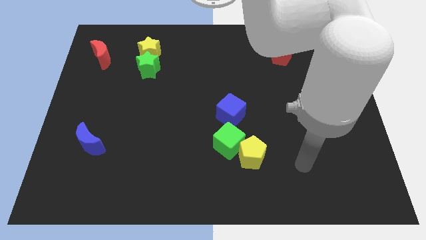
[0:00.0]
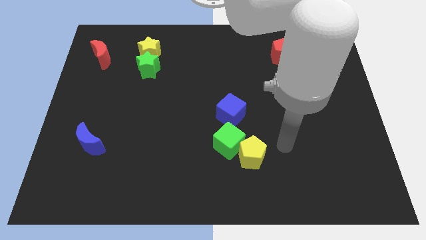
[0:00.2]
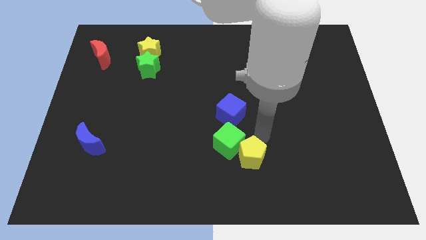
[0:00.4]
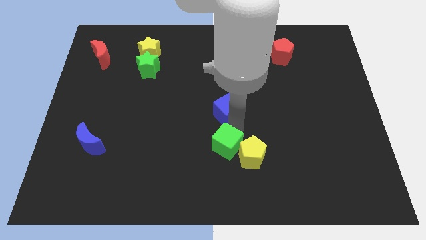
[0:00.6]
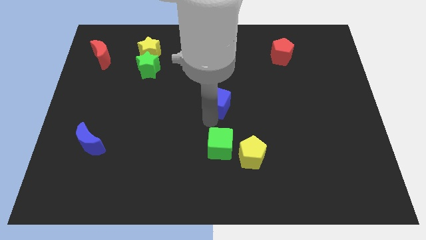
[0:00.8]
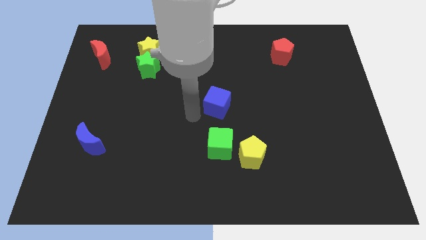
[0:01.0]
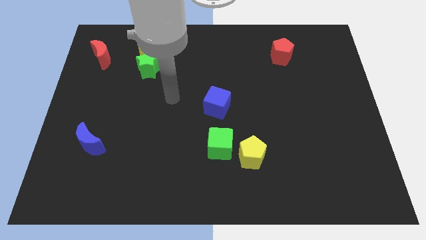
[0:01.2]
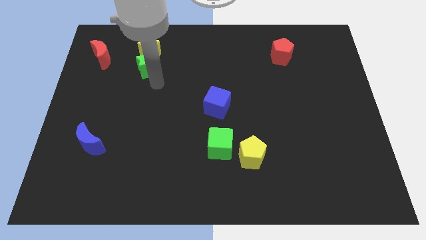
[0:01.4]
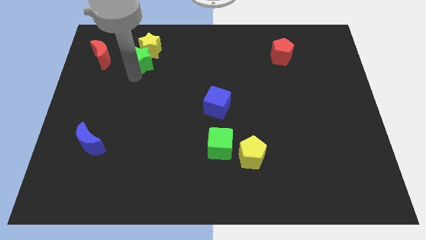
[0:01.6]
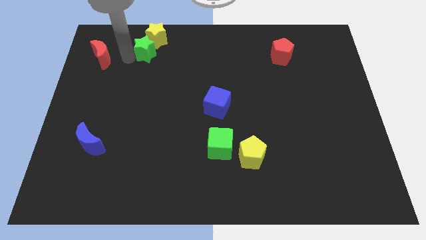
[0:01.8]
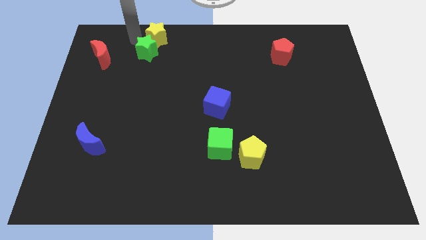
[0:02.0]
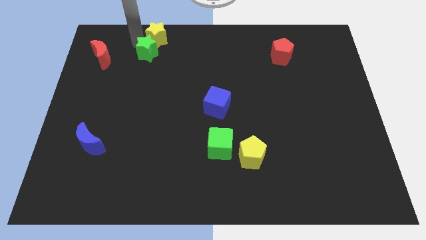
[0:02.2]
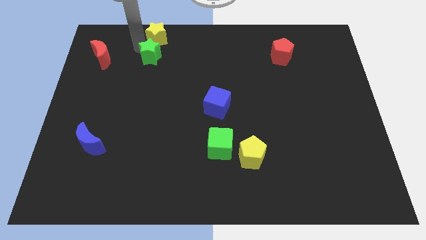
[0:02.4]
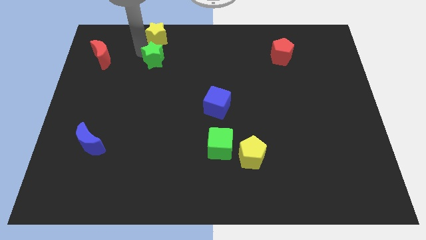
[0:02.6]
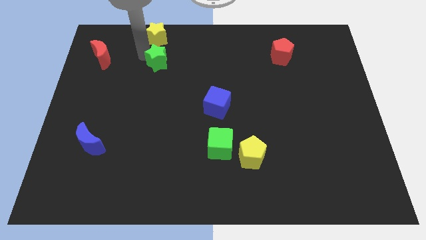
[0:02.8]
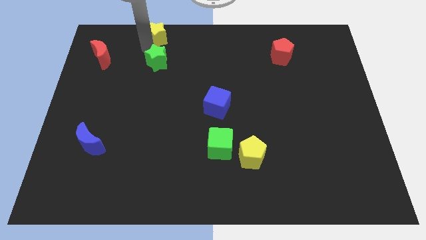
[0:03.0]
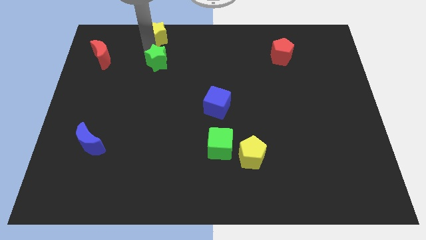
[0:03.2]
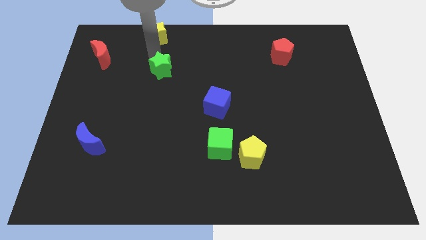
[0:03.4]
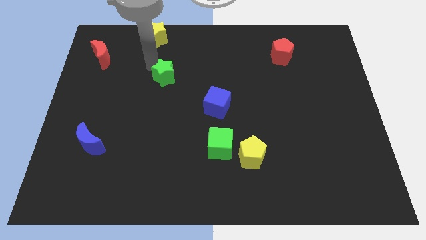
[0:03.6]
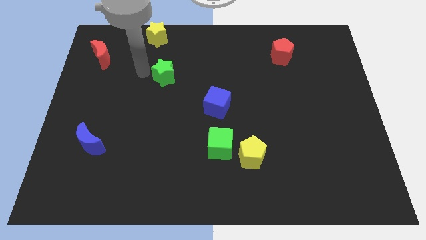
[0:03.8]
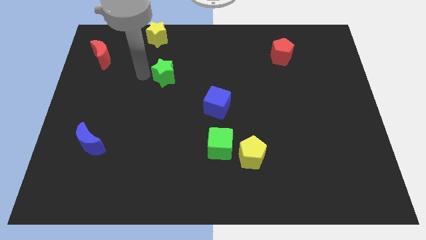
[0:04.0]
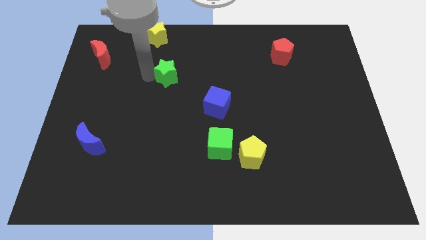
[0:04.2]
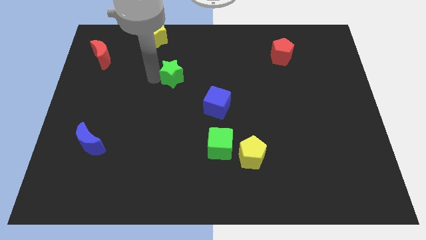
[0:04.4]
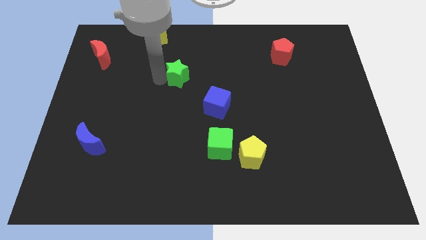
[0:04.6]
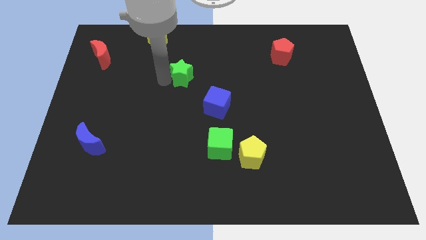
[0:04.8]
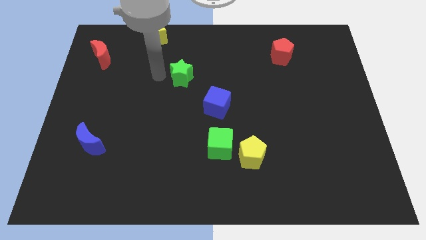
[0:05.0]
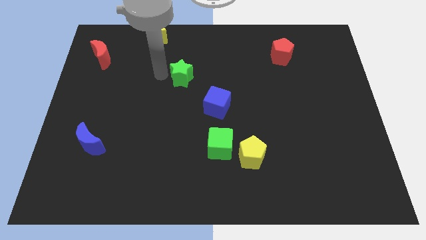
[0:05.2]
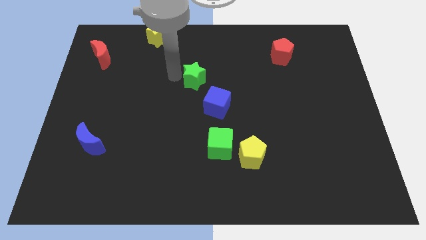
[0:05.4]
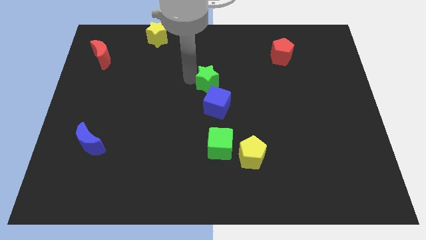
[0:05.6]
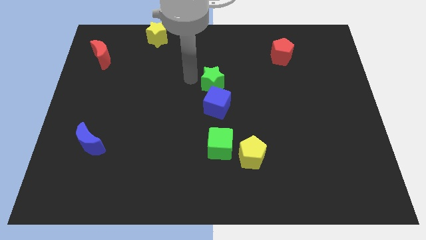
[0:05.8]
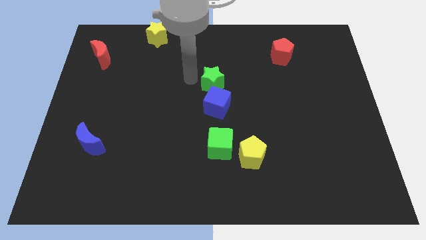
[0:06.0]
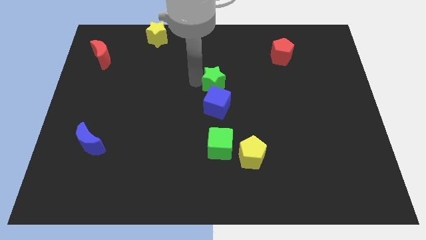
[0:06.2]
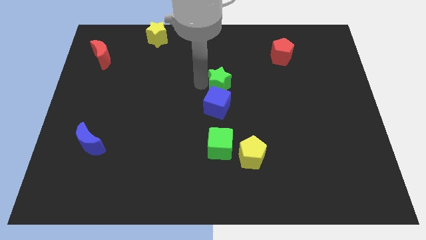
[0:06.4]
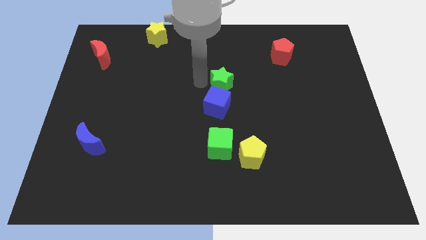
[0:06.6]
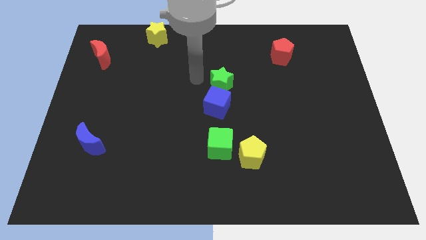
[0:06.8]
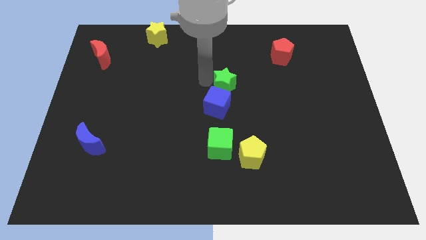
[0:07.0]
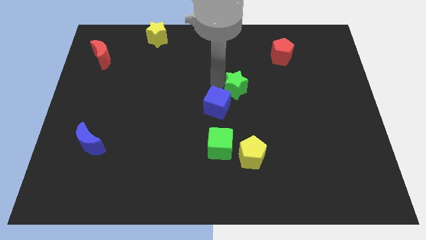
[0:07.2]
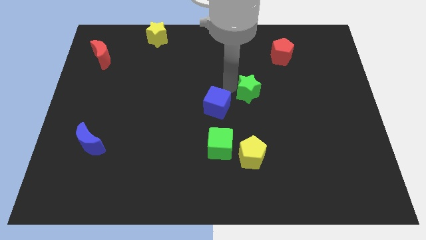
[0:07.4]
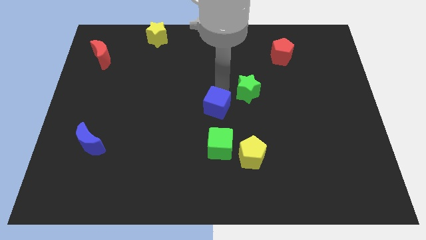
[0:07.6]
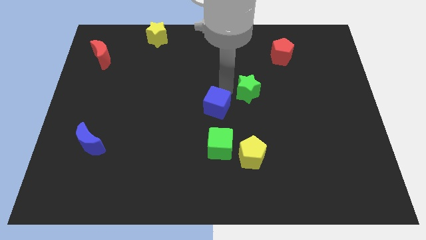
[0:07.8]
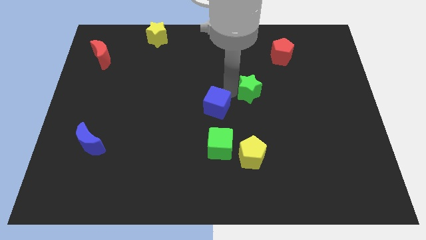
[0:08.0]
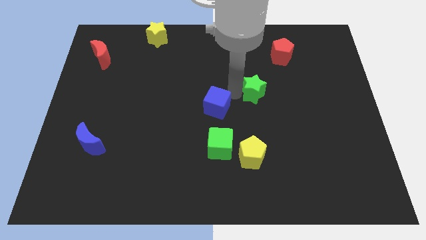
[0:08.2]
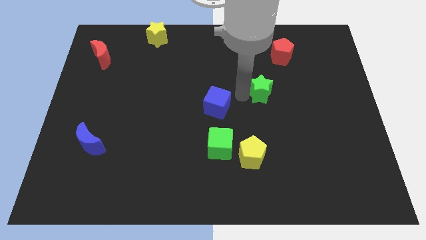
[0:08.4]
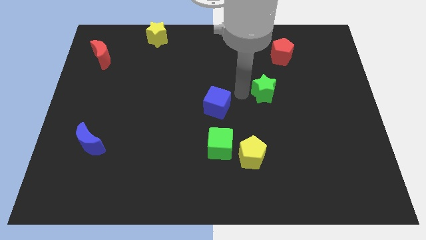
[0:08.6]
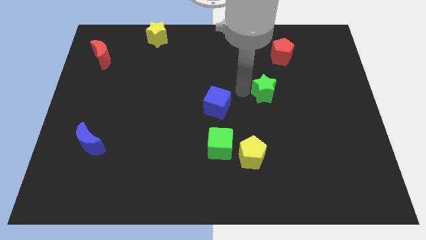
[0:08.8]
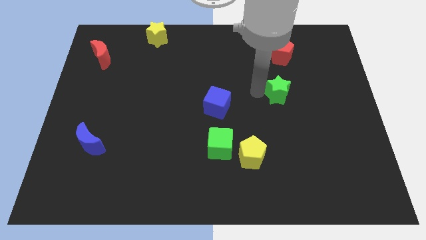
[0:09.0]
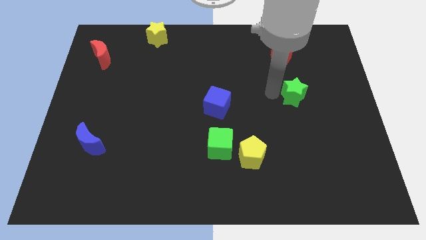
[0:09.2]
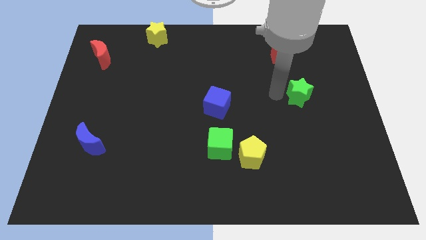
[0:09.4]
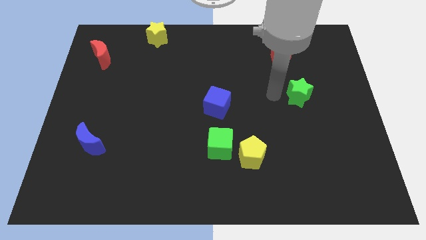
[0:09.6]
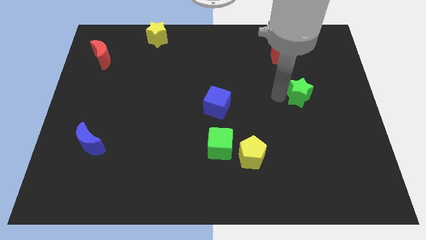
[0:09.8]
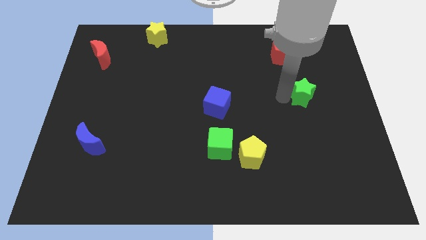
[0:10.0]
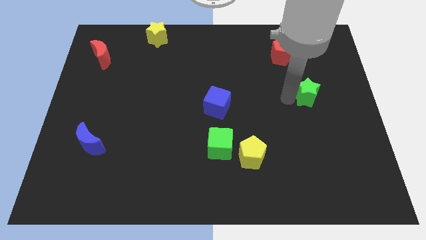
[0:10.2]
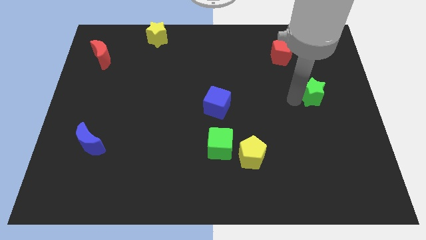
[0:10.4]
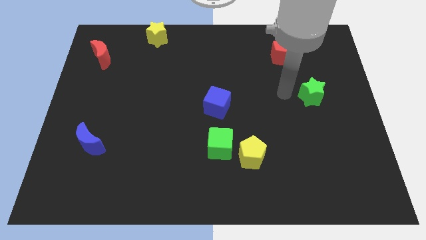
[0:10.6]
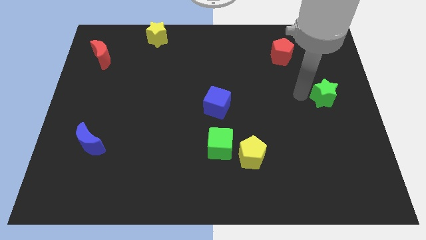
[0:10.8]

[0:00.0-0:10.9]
slide the green star to the center right
